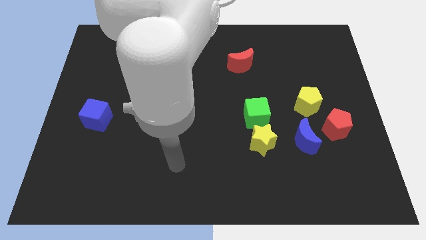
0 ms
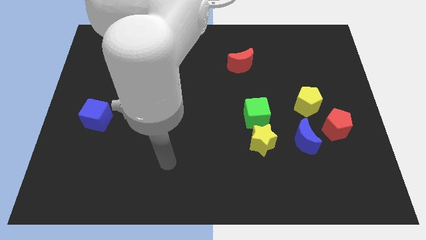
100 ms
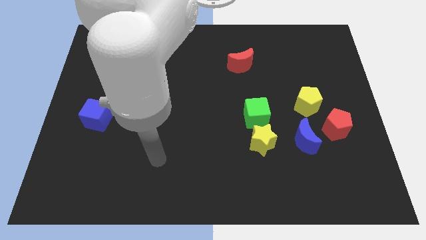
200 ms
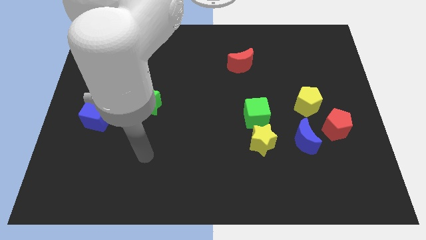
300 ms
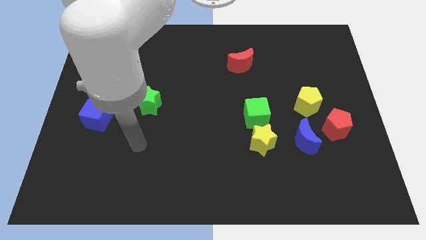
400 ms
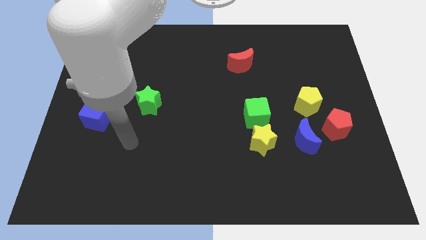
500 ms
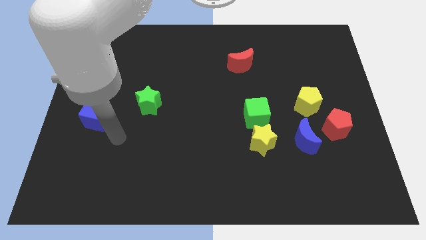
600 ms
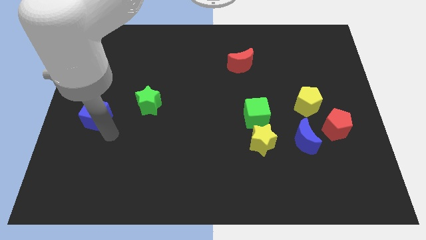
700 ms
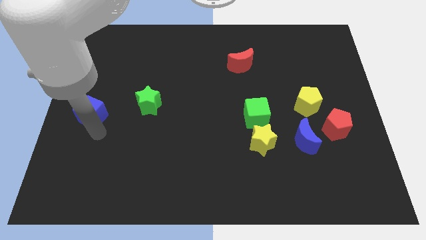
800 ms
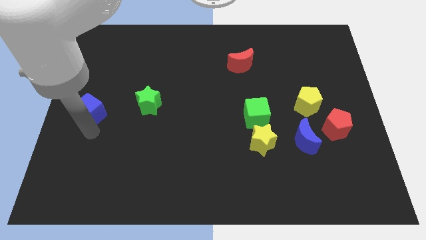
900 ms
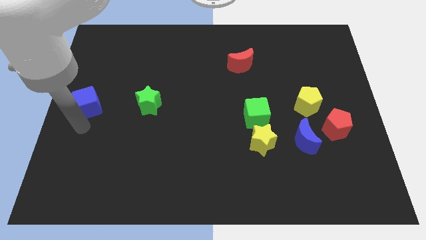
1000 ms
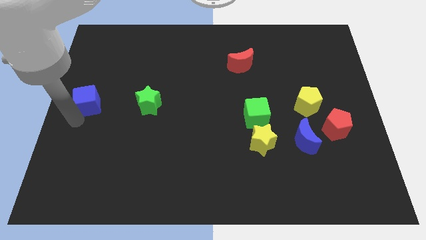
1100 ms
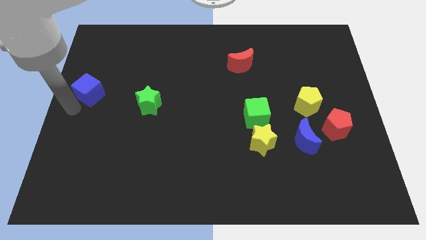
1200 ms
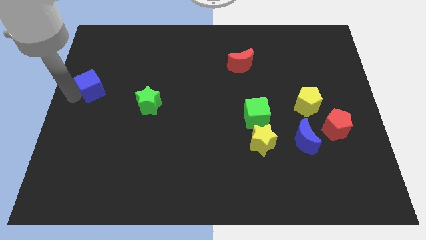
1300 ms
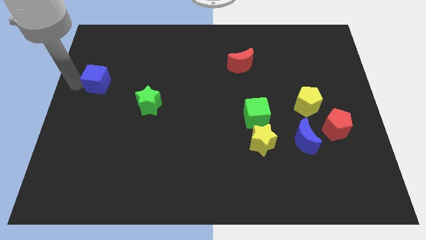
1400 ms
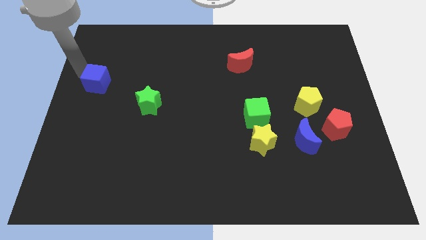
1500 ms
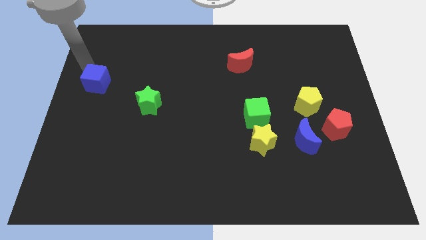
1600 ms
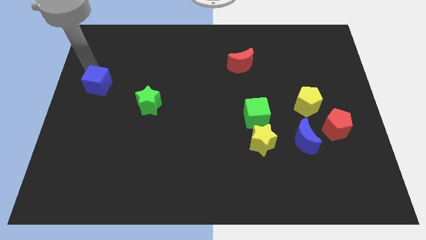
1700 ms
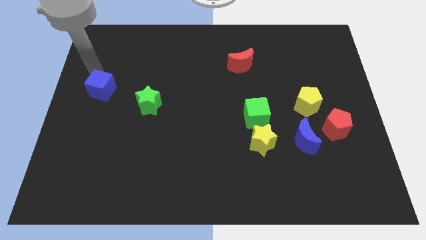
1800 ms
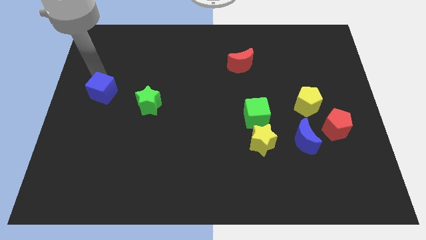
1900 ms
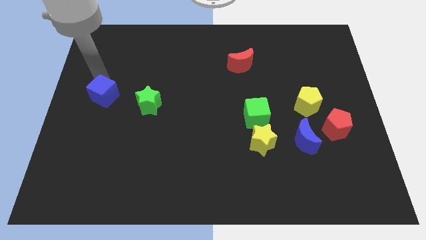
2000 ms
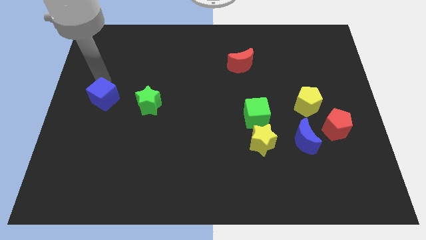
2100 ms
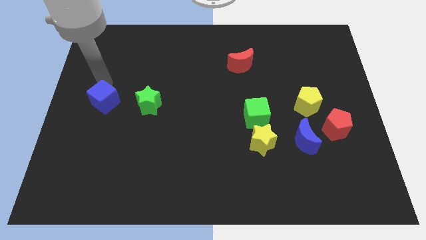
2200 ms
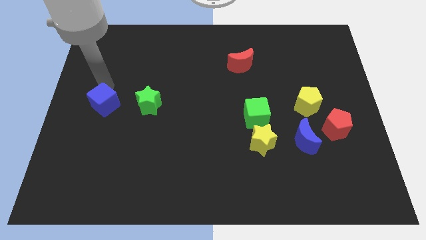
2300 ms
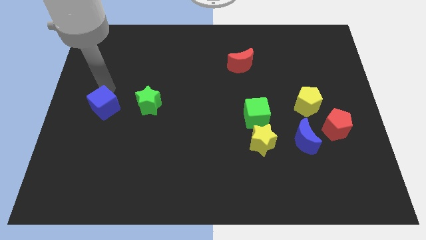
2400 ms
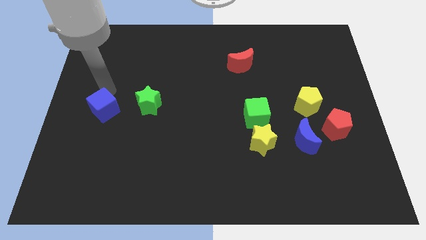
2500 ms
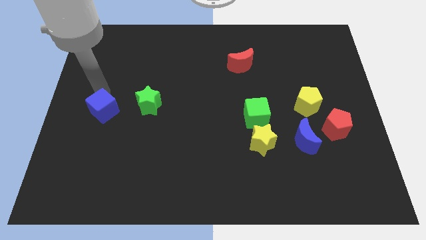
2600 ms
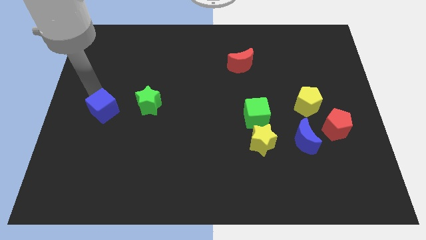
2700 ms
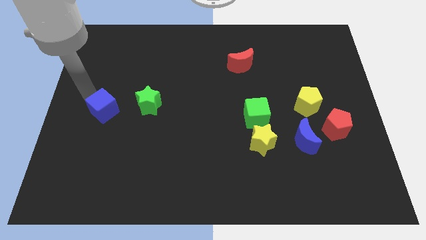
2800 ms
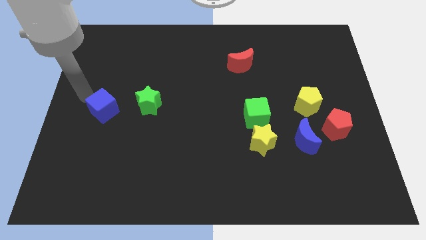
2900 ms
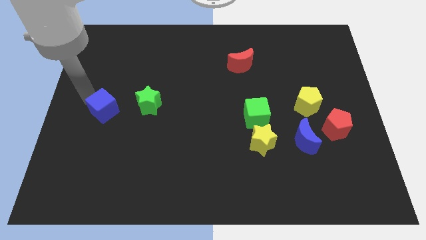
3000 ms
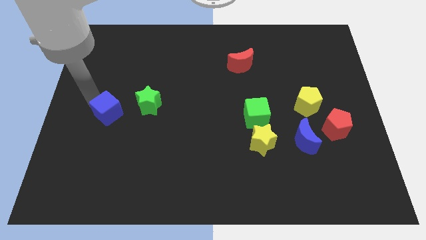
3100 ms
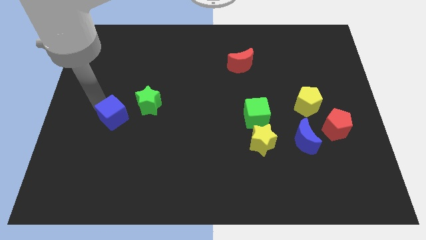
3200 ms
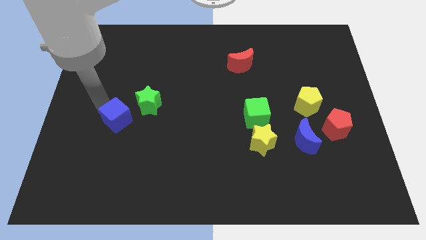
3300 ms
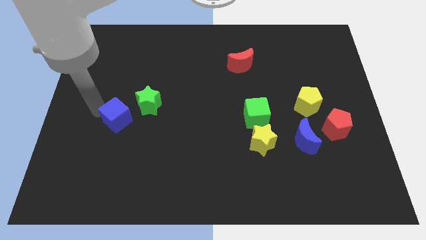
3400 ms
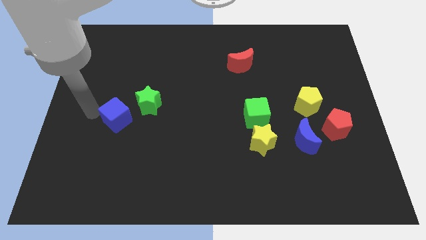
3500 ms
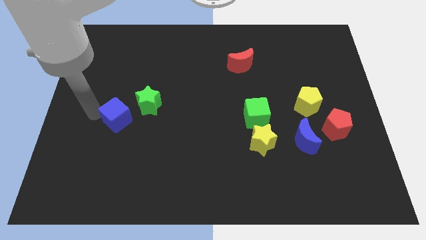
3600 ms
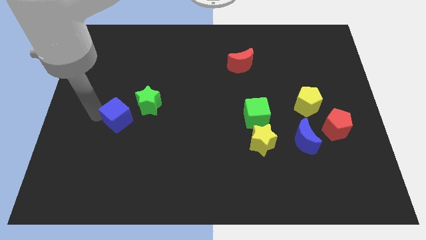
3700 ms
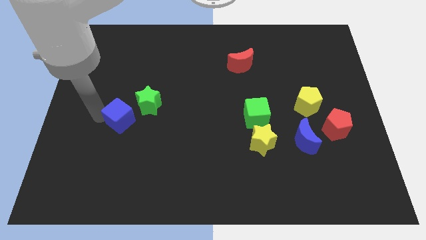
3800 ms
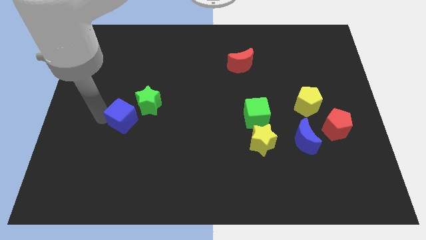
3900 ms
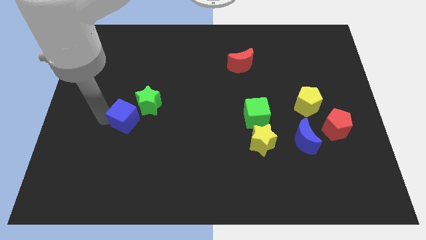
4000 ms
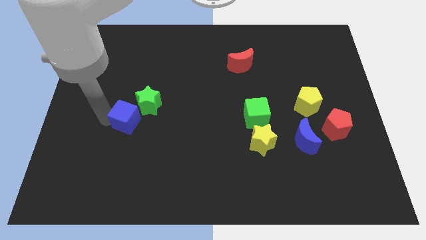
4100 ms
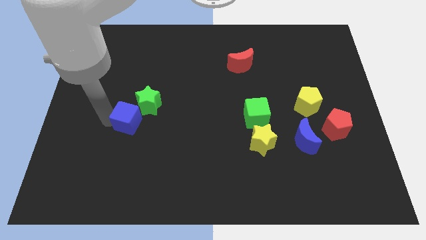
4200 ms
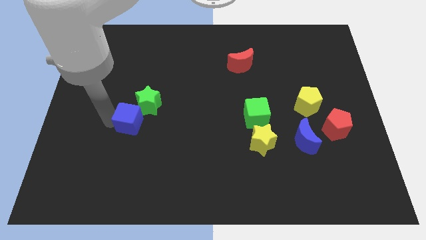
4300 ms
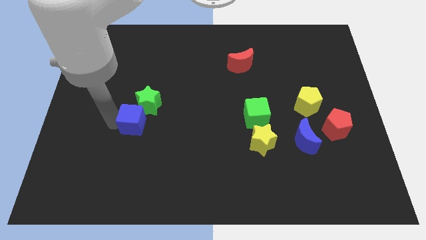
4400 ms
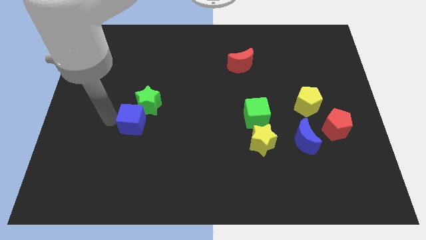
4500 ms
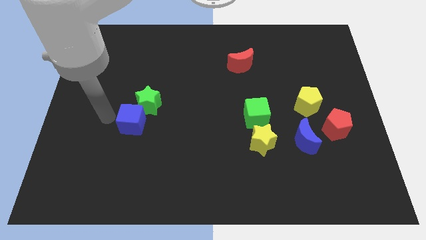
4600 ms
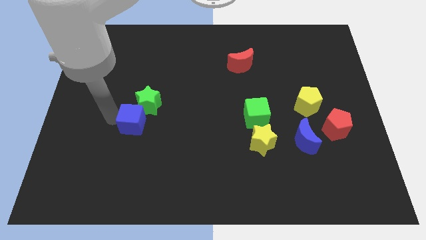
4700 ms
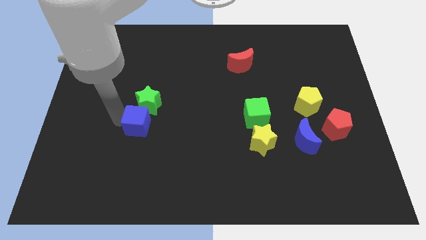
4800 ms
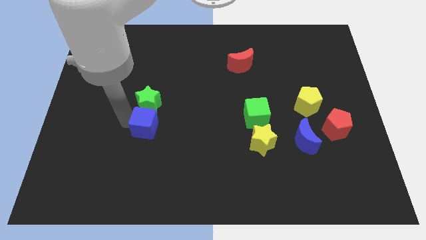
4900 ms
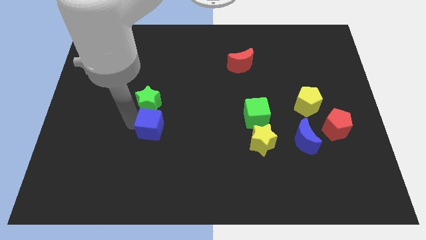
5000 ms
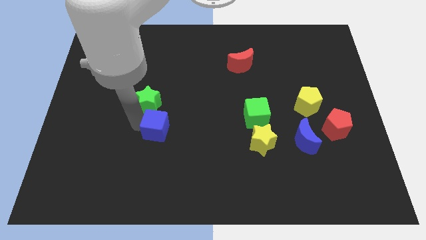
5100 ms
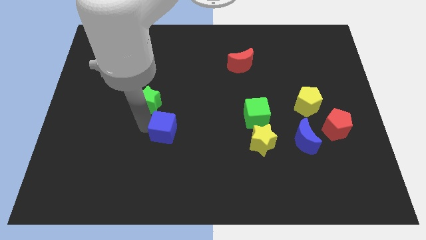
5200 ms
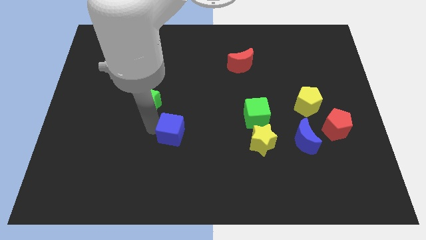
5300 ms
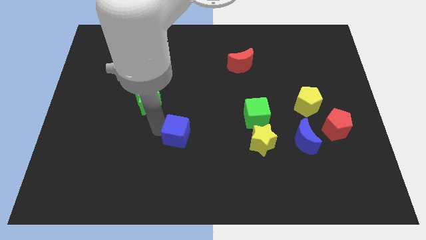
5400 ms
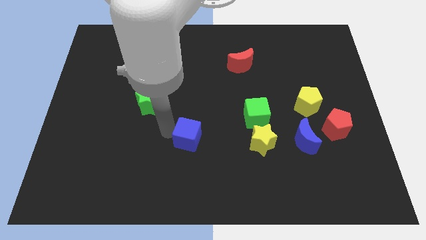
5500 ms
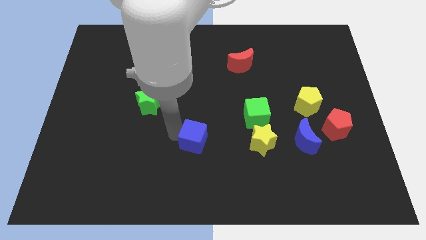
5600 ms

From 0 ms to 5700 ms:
move the blue cube to the left side of the yellow star

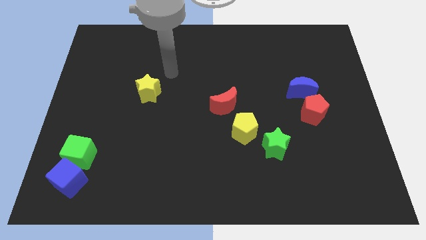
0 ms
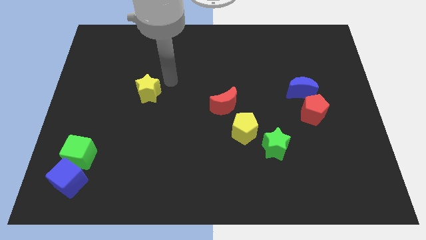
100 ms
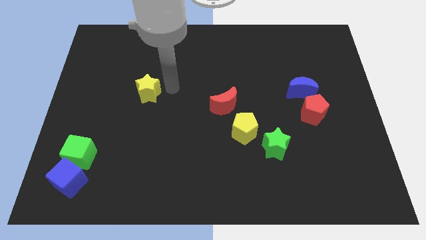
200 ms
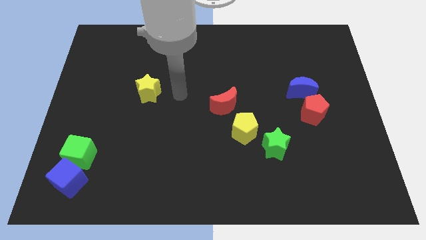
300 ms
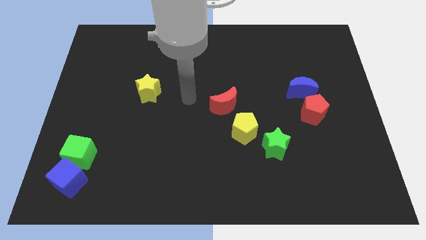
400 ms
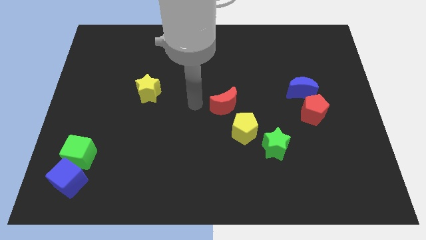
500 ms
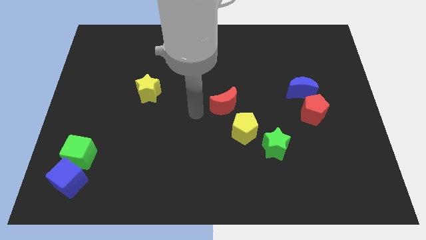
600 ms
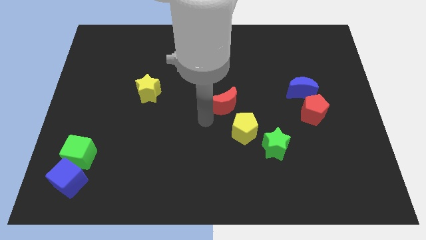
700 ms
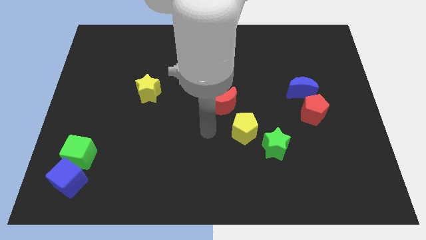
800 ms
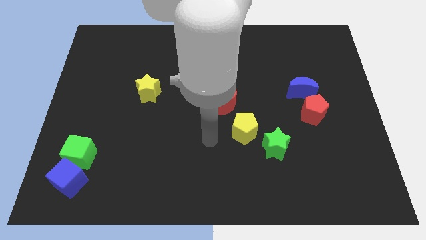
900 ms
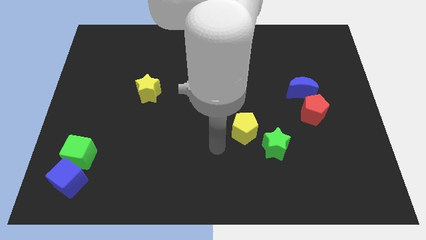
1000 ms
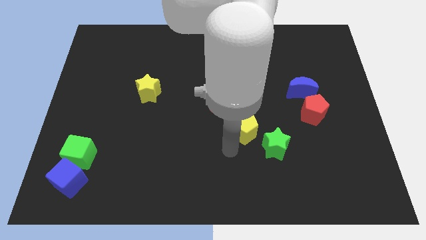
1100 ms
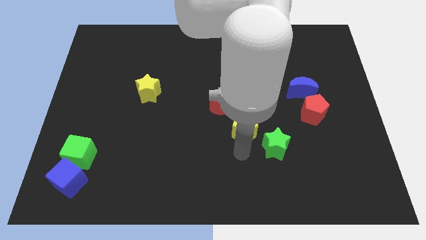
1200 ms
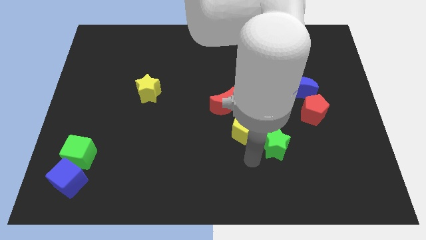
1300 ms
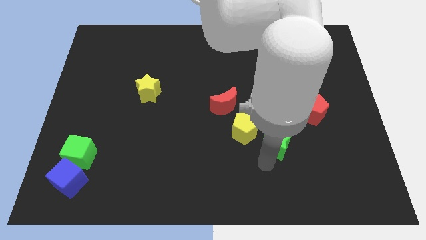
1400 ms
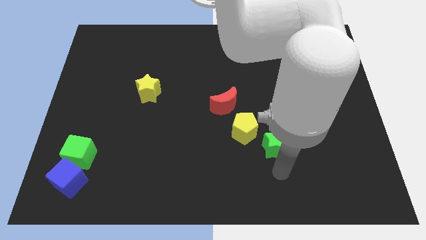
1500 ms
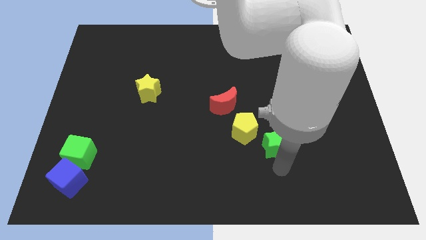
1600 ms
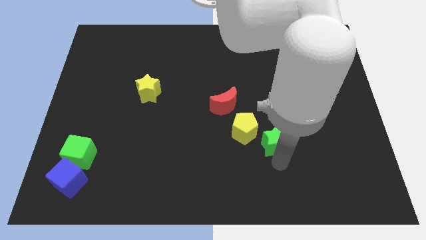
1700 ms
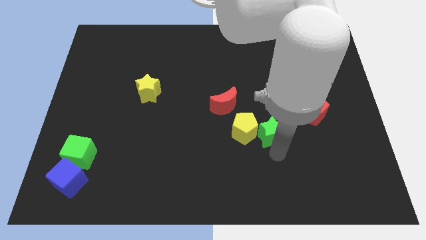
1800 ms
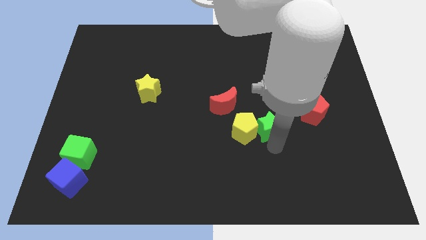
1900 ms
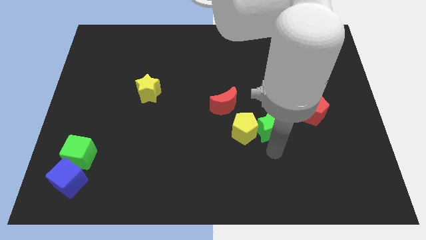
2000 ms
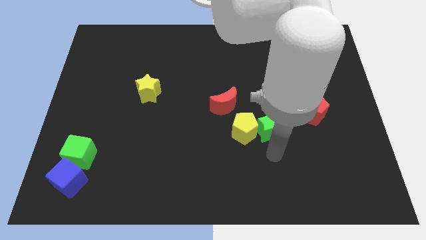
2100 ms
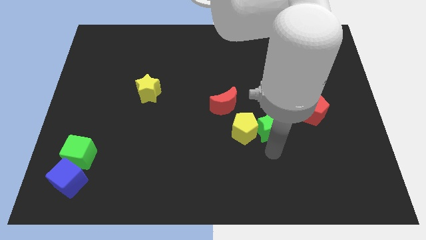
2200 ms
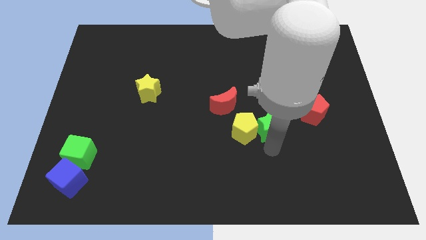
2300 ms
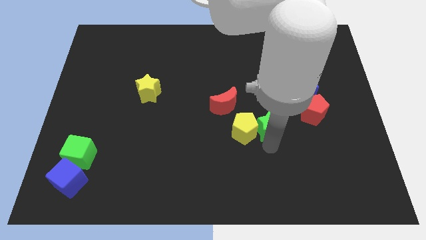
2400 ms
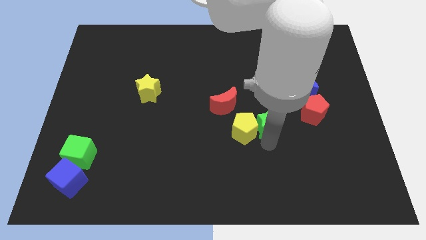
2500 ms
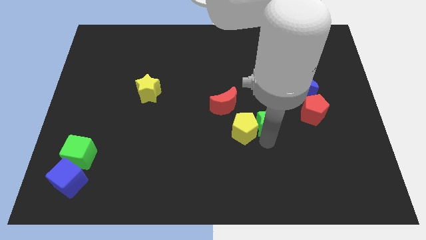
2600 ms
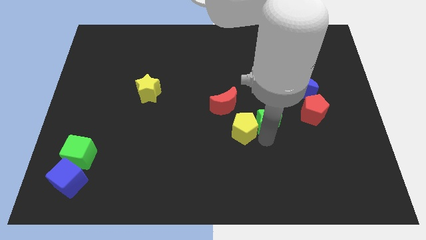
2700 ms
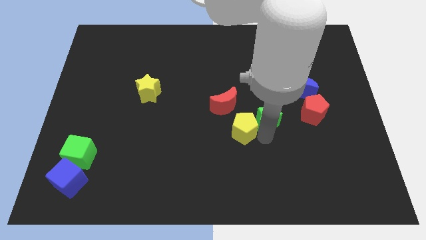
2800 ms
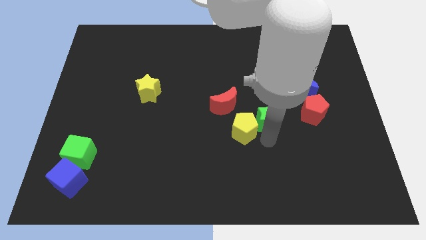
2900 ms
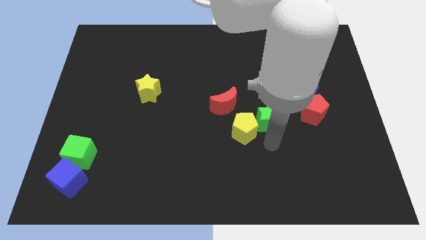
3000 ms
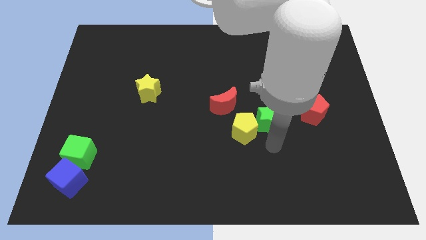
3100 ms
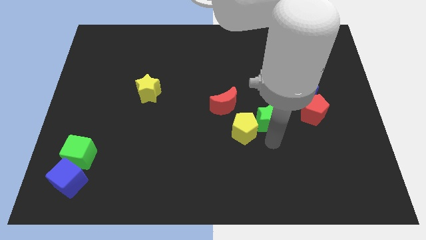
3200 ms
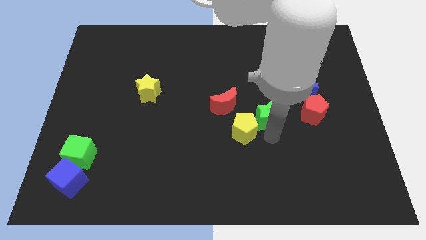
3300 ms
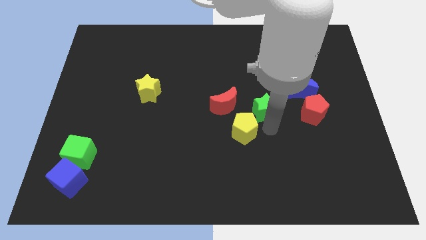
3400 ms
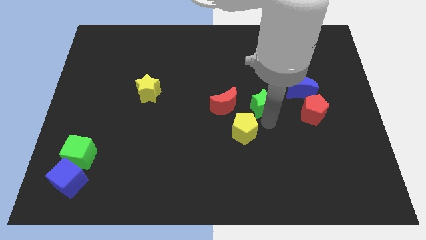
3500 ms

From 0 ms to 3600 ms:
slide the green star to the left side of the blue moon
